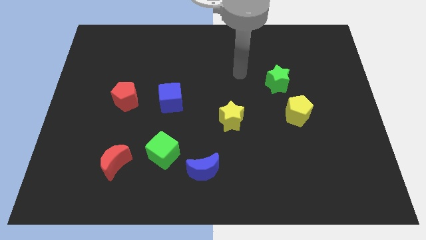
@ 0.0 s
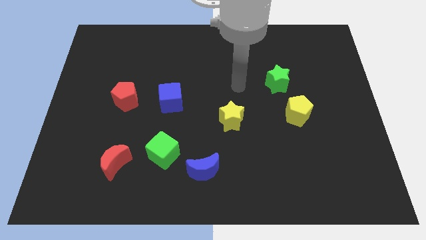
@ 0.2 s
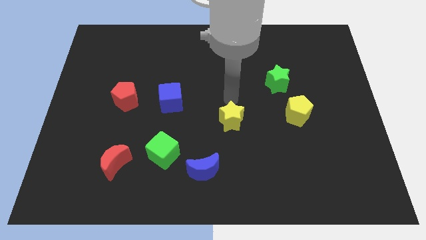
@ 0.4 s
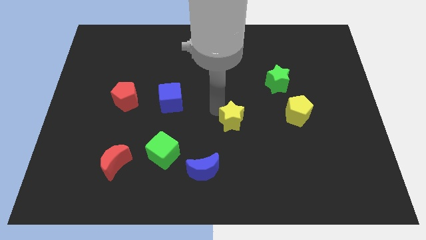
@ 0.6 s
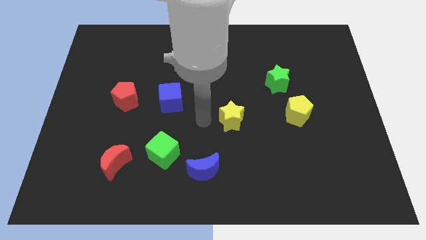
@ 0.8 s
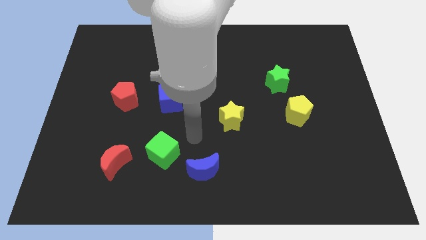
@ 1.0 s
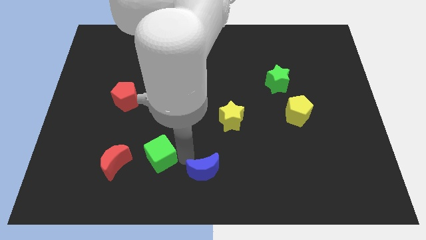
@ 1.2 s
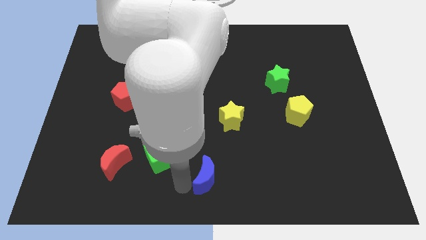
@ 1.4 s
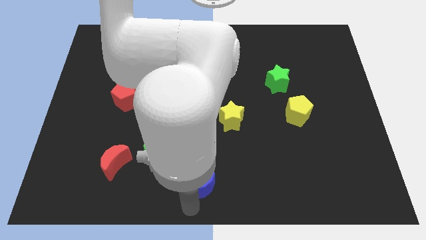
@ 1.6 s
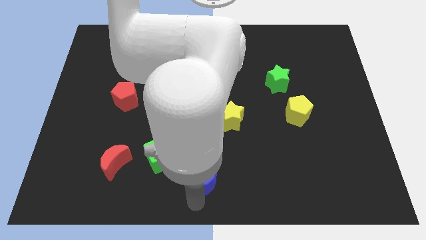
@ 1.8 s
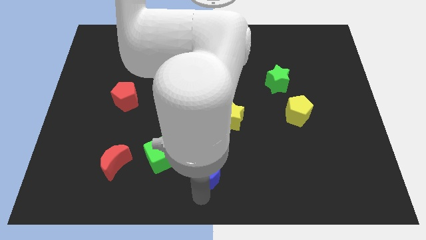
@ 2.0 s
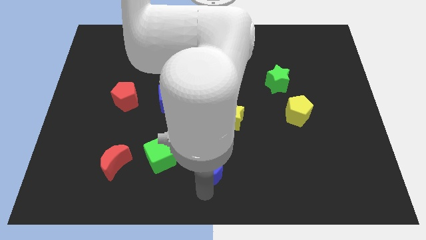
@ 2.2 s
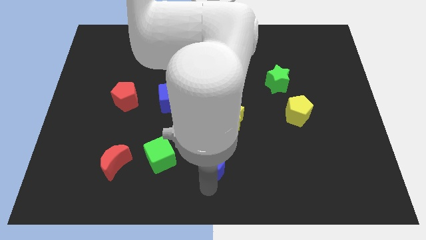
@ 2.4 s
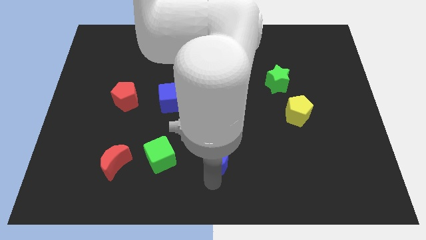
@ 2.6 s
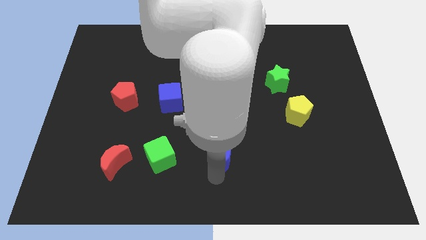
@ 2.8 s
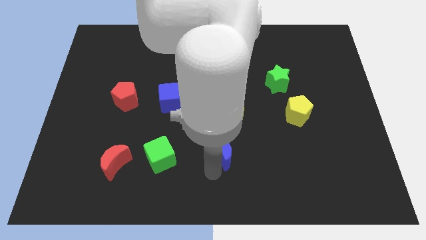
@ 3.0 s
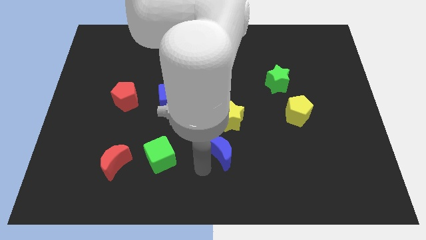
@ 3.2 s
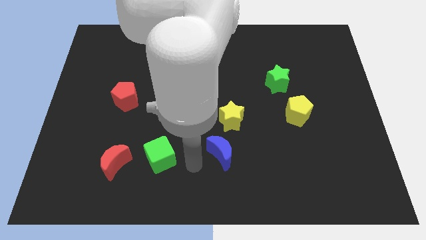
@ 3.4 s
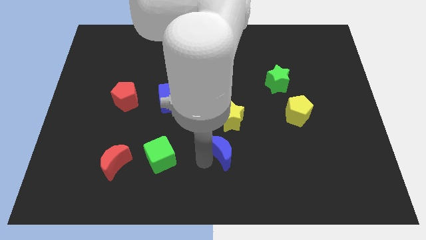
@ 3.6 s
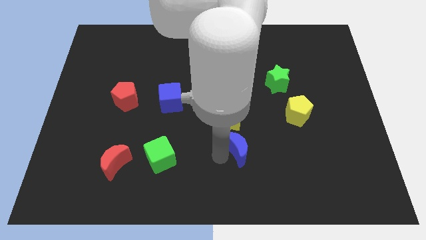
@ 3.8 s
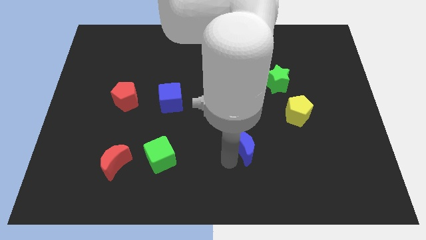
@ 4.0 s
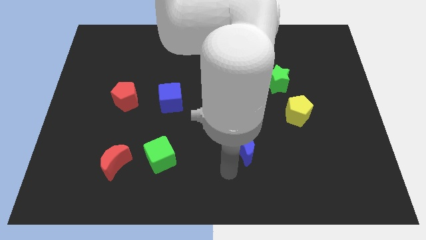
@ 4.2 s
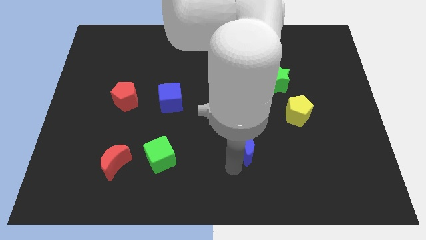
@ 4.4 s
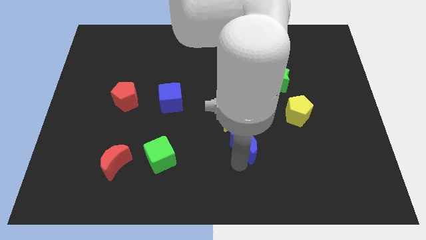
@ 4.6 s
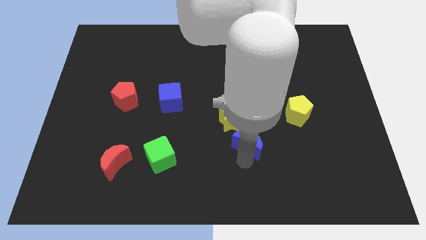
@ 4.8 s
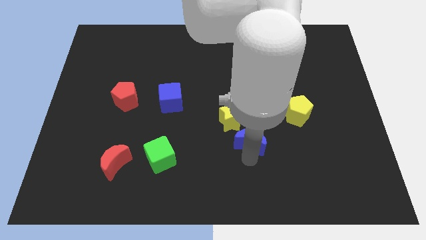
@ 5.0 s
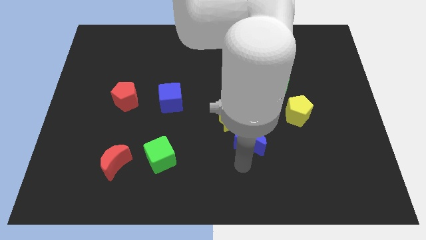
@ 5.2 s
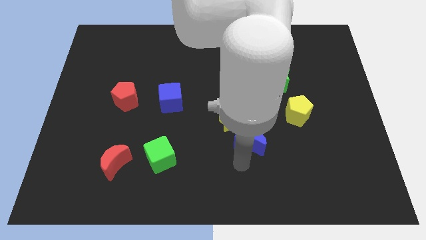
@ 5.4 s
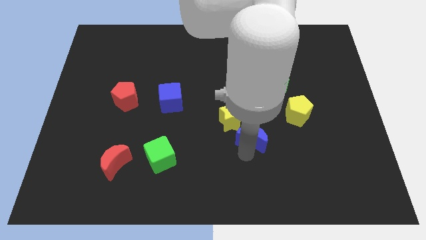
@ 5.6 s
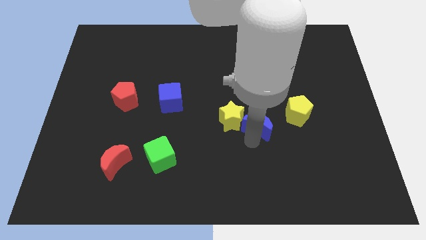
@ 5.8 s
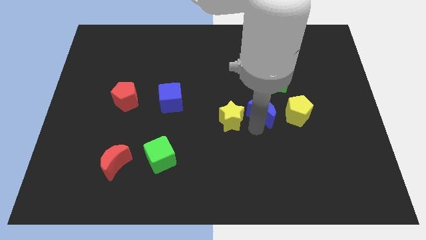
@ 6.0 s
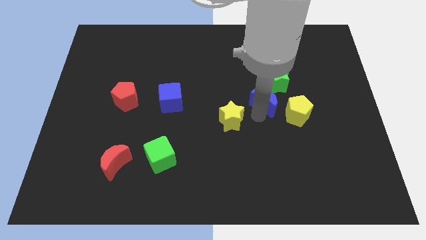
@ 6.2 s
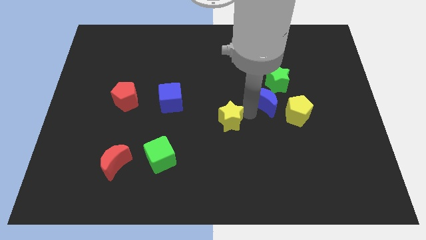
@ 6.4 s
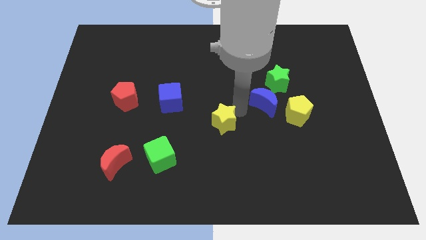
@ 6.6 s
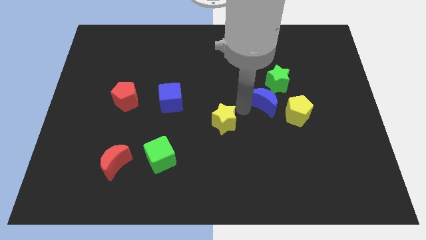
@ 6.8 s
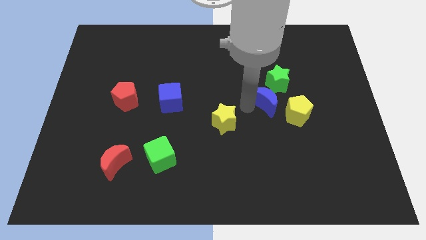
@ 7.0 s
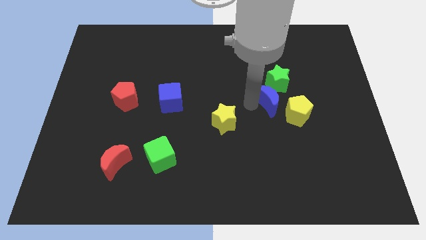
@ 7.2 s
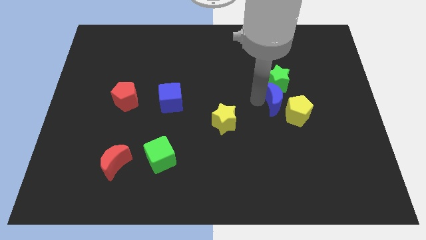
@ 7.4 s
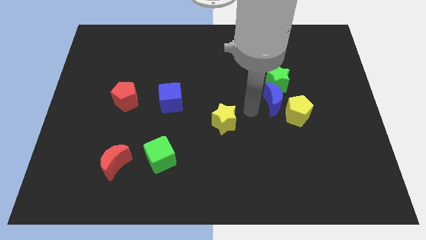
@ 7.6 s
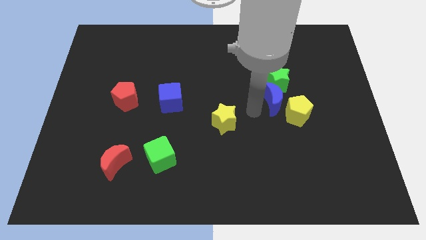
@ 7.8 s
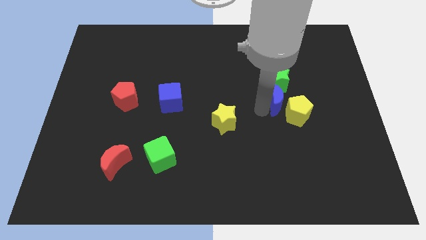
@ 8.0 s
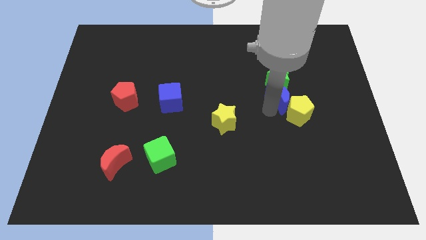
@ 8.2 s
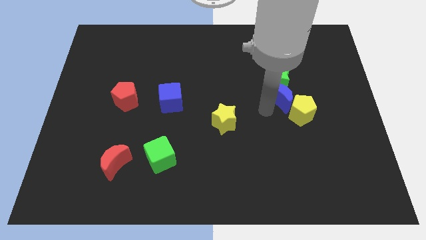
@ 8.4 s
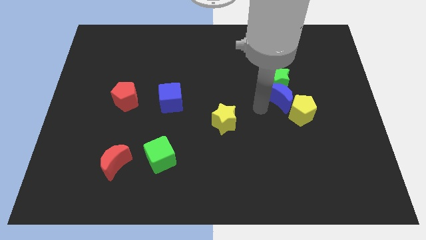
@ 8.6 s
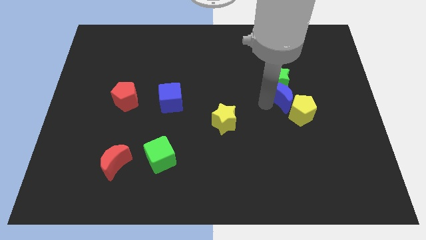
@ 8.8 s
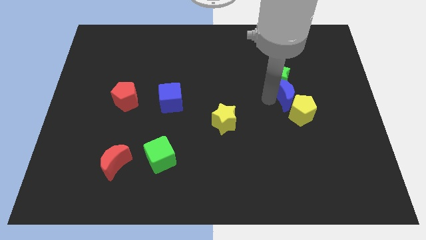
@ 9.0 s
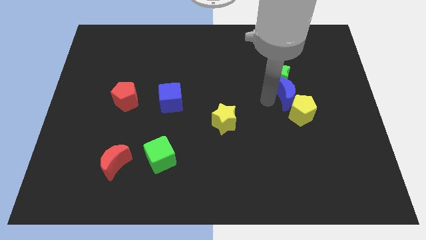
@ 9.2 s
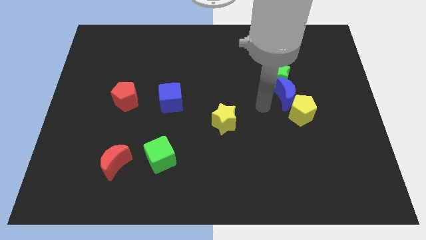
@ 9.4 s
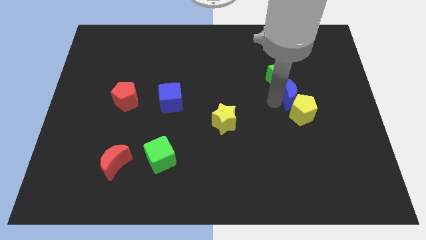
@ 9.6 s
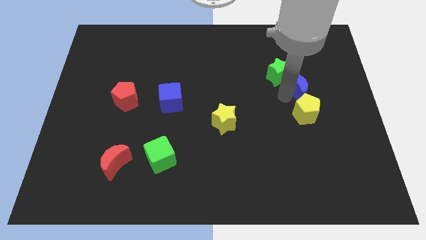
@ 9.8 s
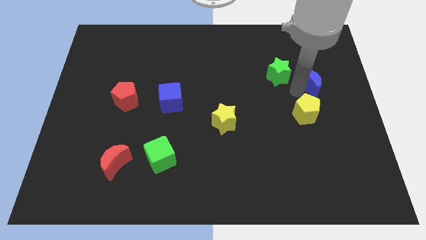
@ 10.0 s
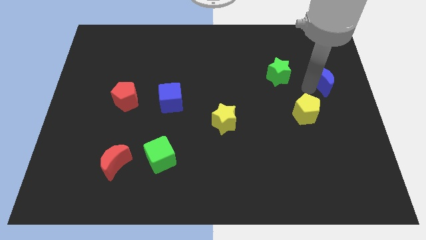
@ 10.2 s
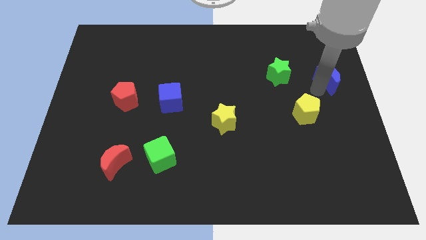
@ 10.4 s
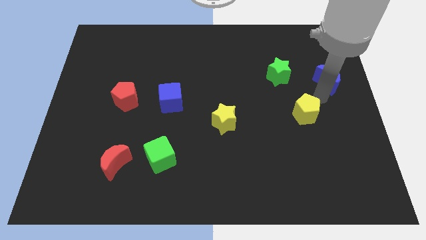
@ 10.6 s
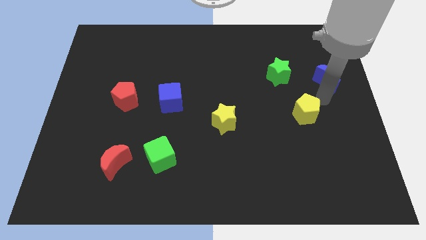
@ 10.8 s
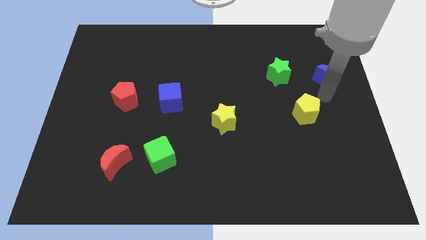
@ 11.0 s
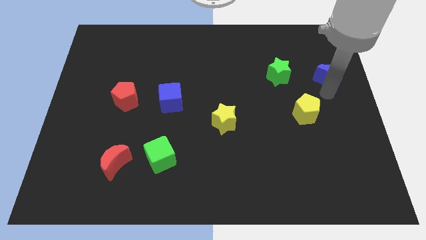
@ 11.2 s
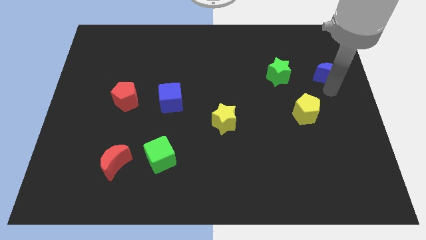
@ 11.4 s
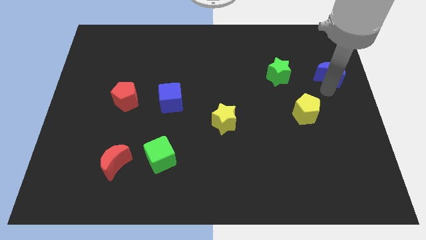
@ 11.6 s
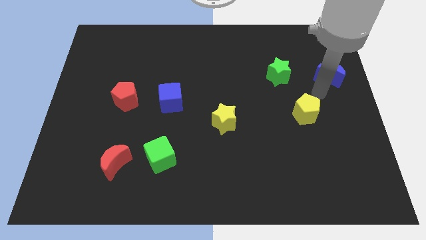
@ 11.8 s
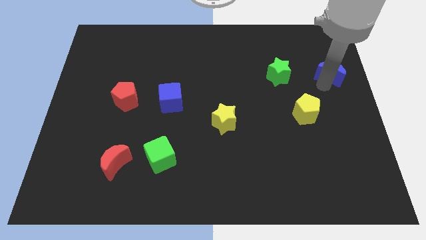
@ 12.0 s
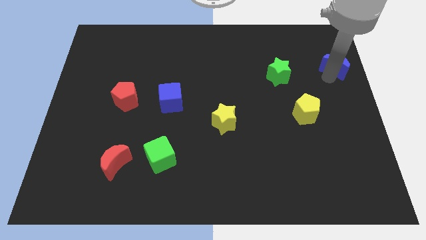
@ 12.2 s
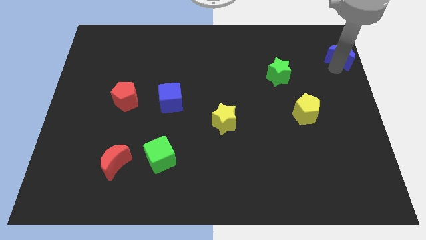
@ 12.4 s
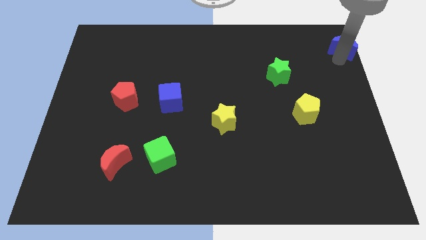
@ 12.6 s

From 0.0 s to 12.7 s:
put the blue moon to the top right

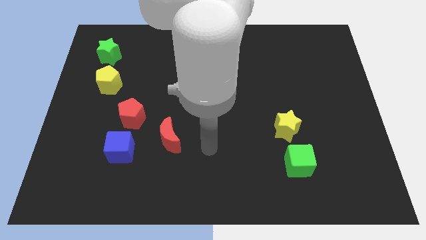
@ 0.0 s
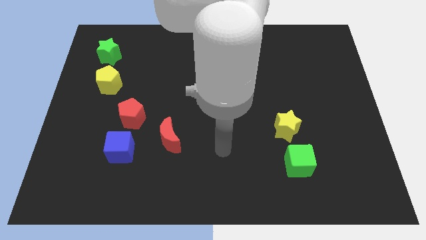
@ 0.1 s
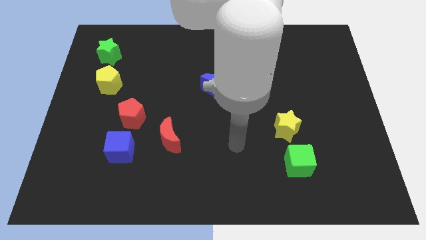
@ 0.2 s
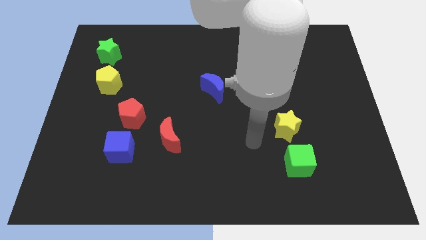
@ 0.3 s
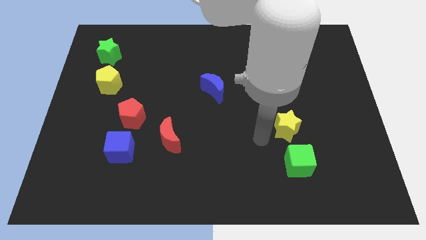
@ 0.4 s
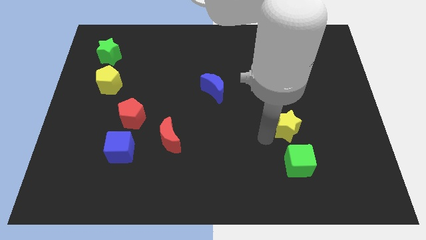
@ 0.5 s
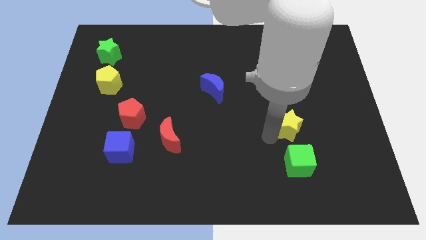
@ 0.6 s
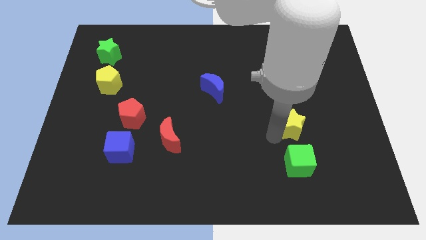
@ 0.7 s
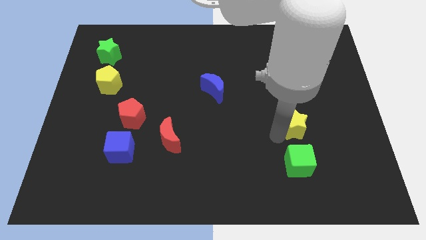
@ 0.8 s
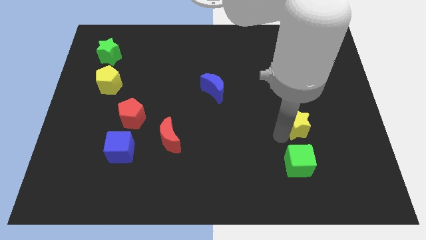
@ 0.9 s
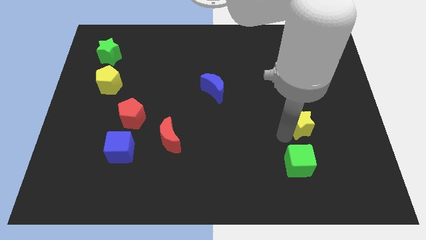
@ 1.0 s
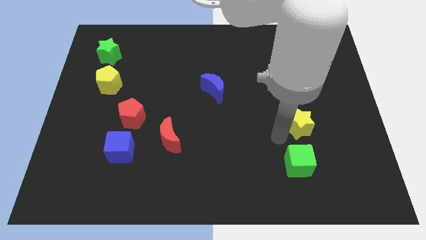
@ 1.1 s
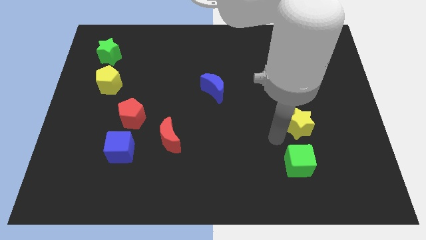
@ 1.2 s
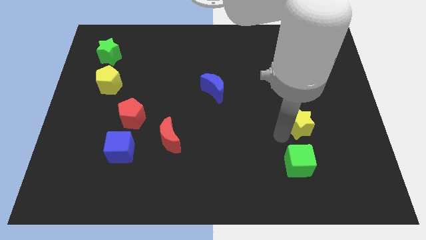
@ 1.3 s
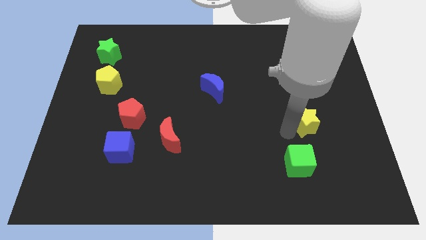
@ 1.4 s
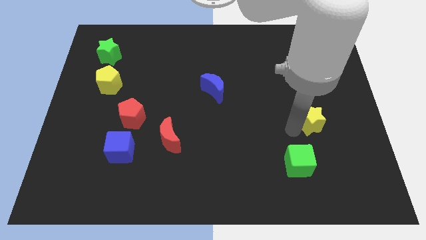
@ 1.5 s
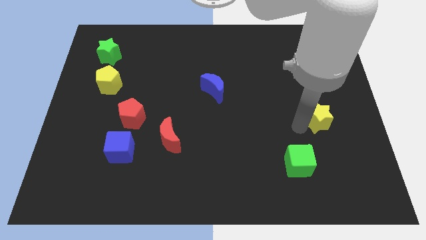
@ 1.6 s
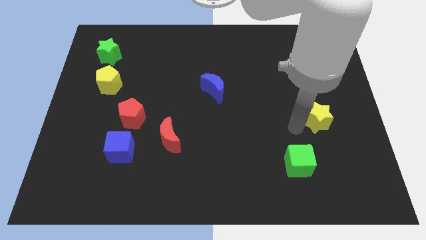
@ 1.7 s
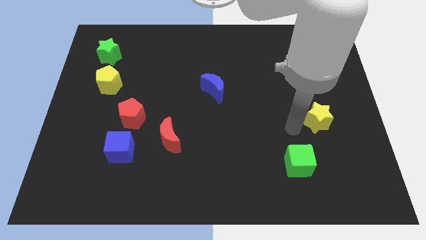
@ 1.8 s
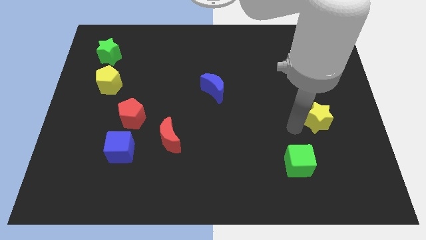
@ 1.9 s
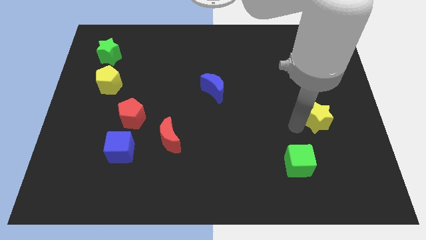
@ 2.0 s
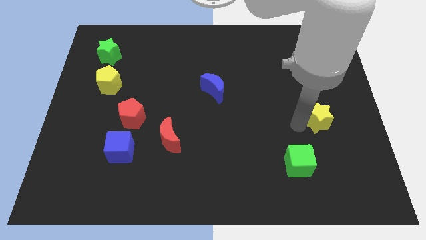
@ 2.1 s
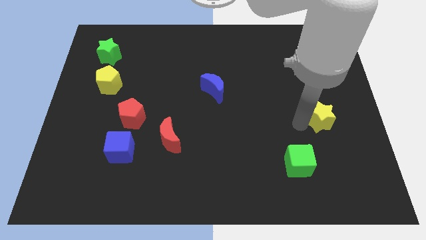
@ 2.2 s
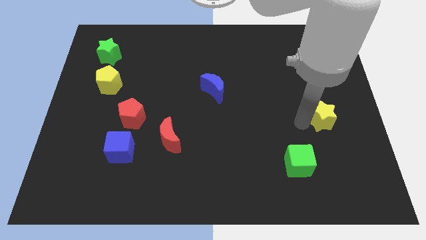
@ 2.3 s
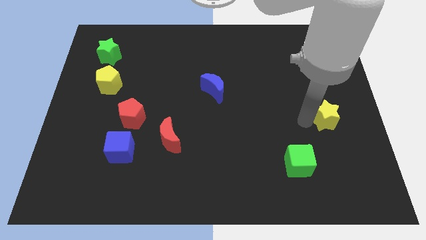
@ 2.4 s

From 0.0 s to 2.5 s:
push the yellow star to the right side of the board
